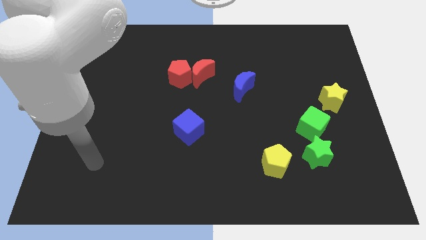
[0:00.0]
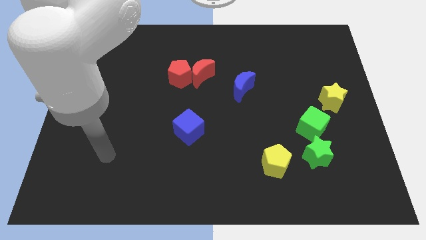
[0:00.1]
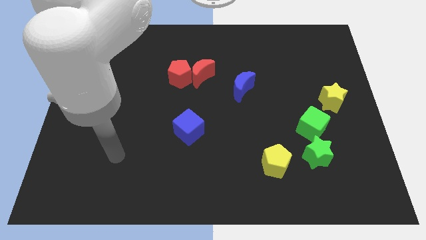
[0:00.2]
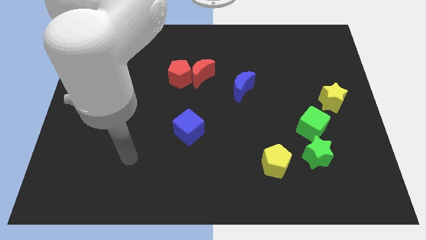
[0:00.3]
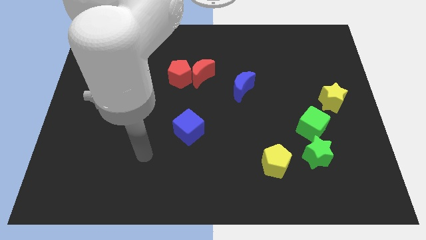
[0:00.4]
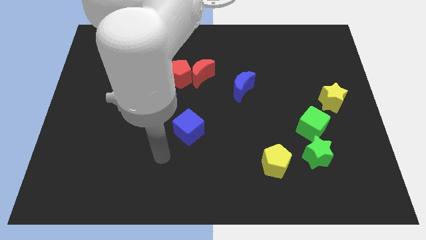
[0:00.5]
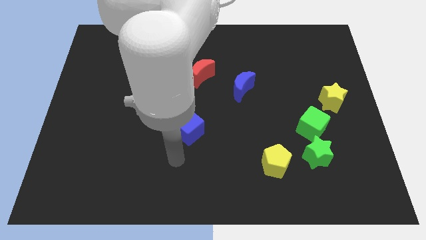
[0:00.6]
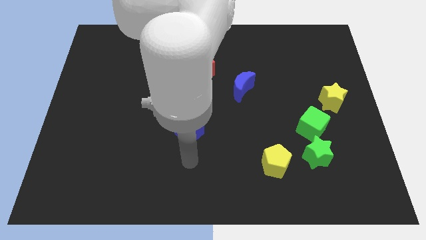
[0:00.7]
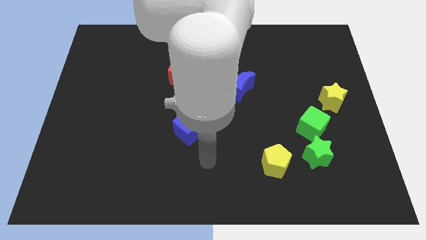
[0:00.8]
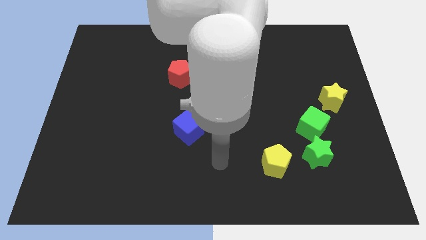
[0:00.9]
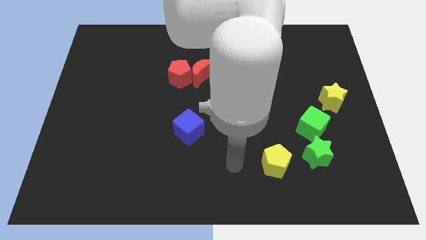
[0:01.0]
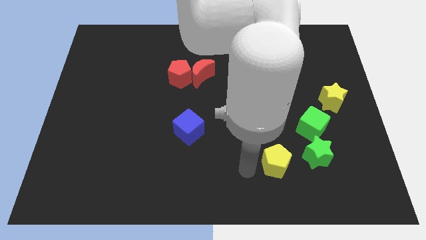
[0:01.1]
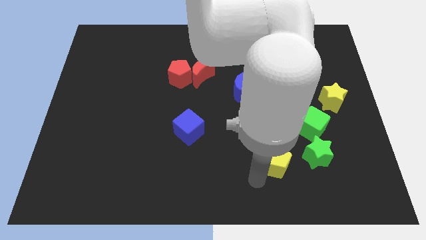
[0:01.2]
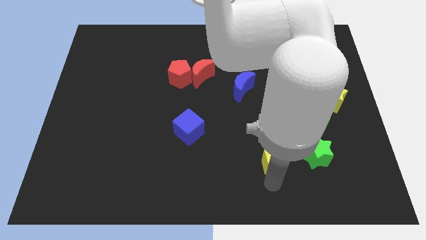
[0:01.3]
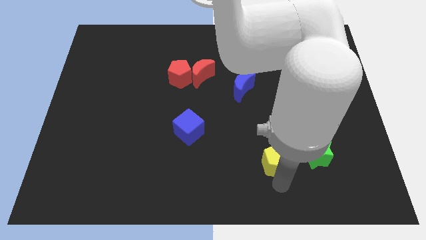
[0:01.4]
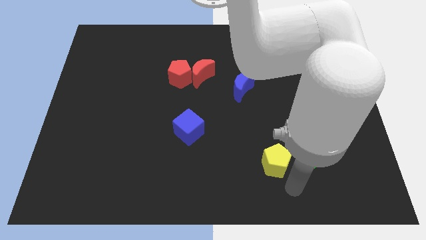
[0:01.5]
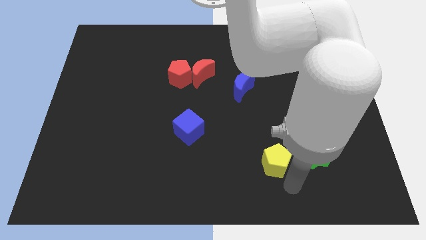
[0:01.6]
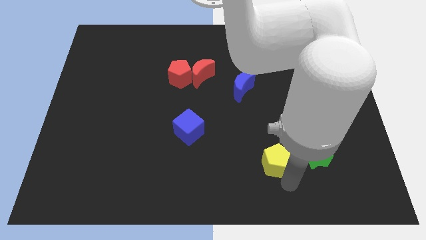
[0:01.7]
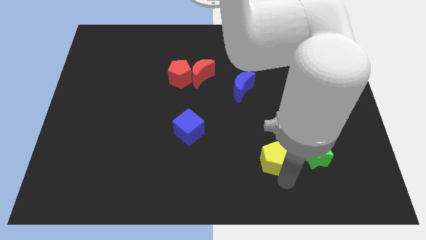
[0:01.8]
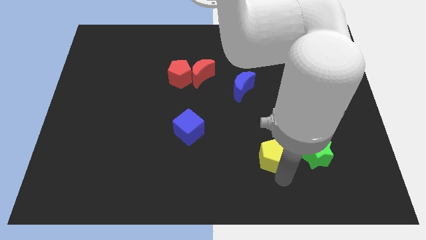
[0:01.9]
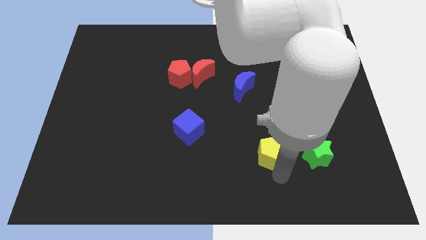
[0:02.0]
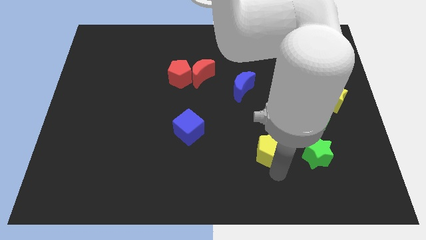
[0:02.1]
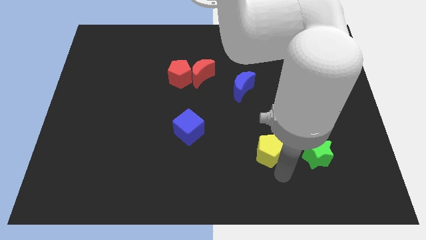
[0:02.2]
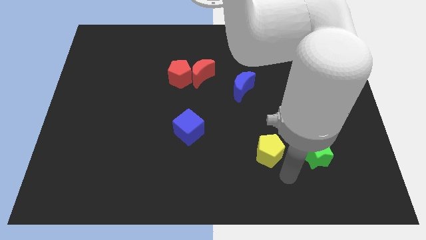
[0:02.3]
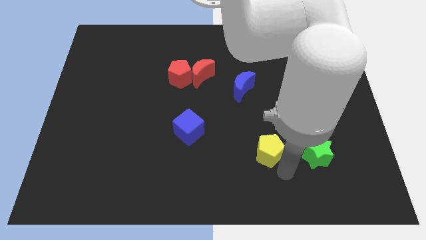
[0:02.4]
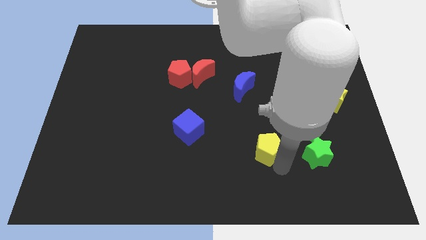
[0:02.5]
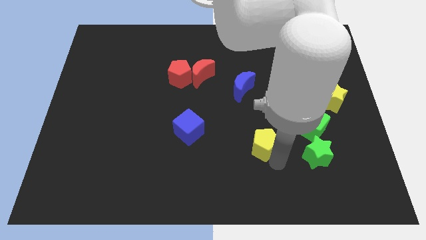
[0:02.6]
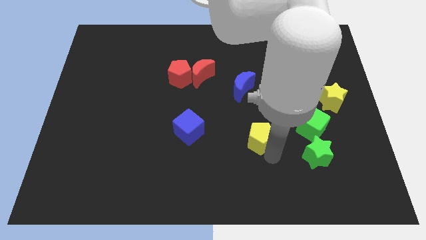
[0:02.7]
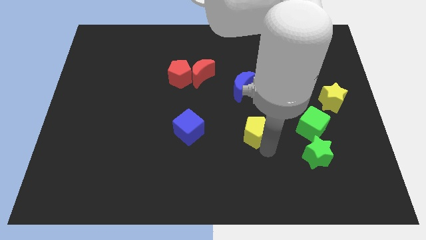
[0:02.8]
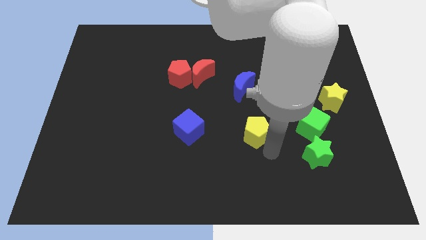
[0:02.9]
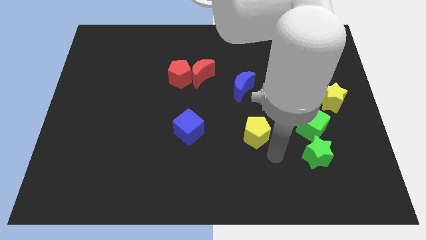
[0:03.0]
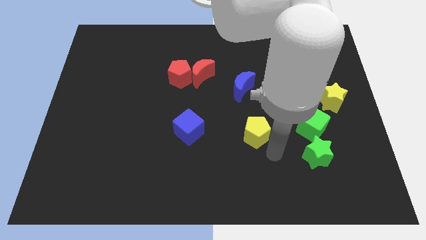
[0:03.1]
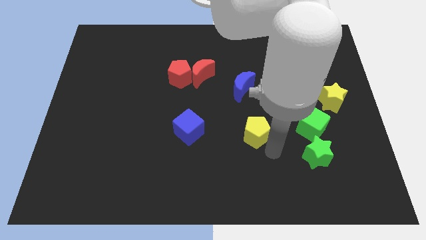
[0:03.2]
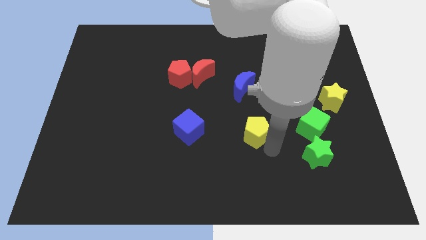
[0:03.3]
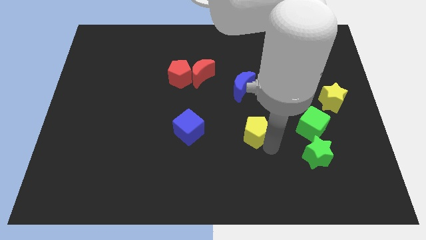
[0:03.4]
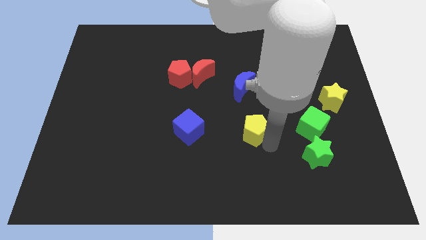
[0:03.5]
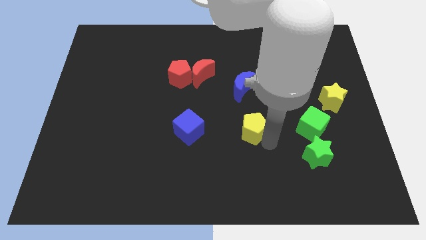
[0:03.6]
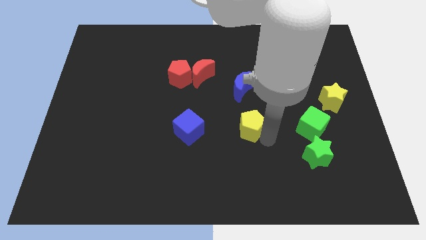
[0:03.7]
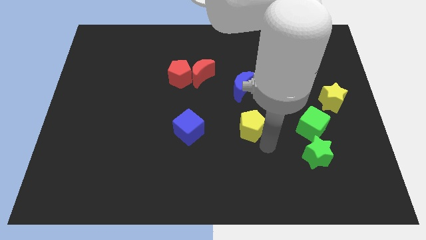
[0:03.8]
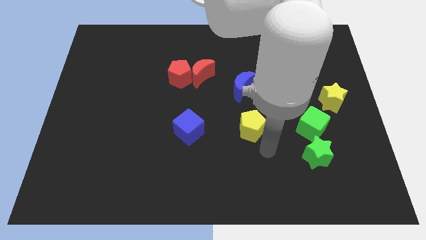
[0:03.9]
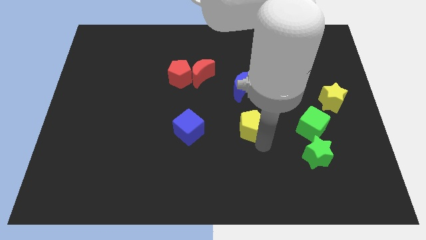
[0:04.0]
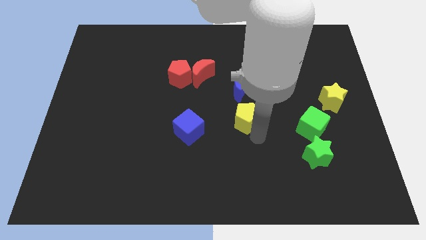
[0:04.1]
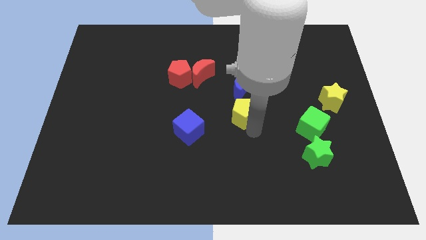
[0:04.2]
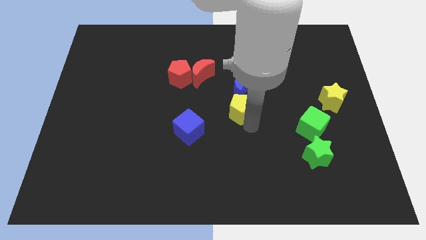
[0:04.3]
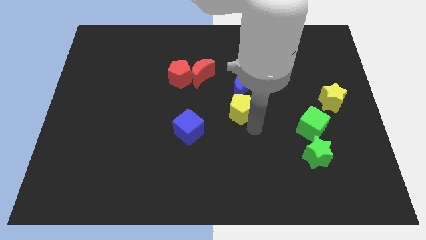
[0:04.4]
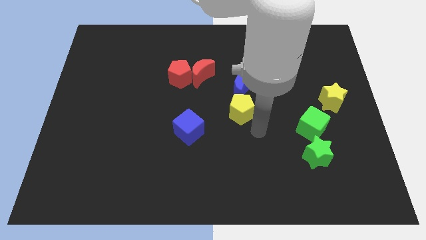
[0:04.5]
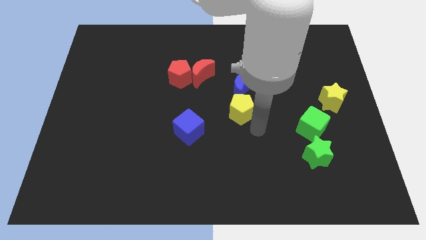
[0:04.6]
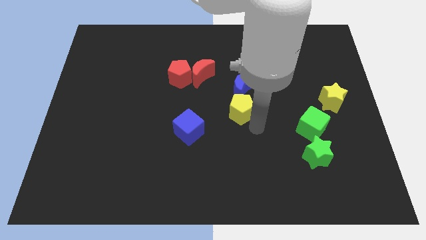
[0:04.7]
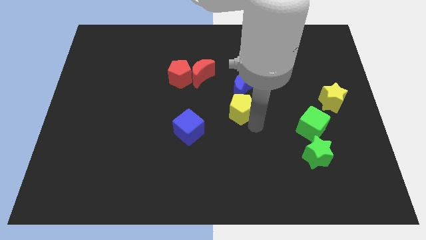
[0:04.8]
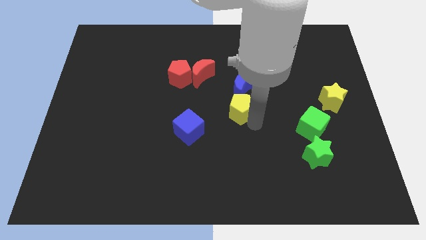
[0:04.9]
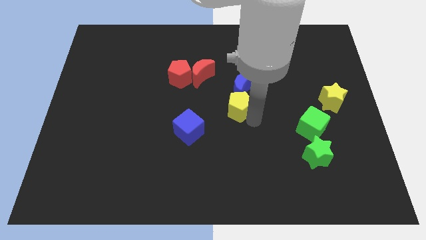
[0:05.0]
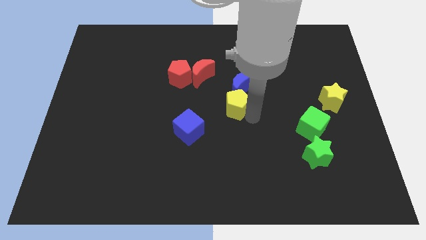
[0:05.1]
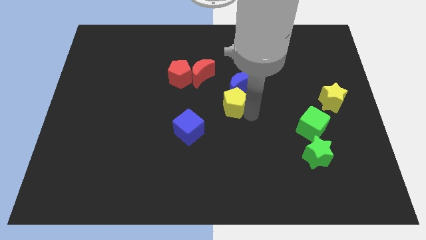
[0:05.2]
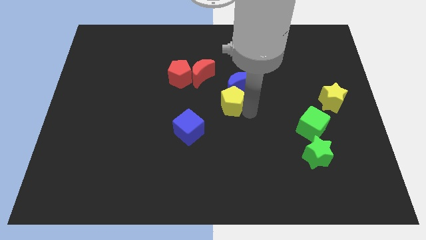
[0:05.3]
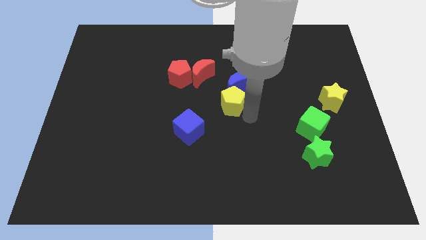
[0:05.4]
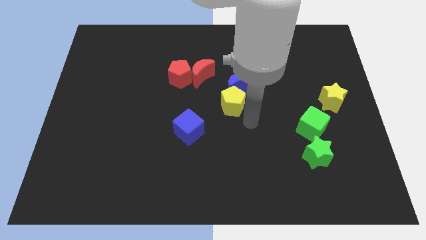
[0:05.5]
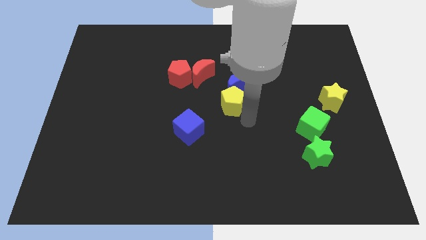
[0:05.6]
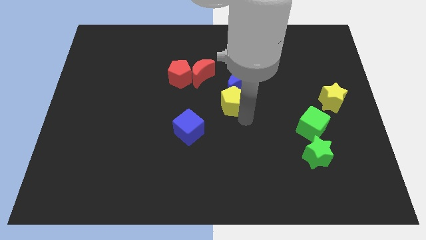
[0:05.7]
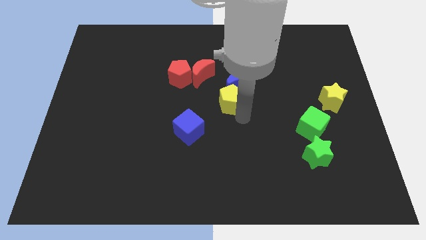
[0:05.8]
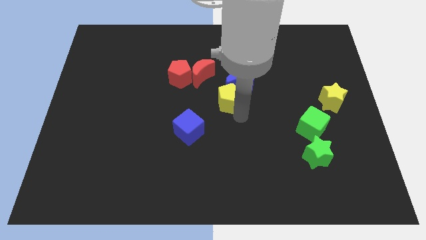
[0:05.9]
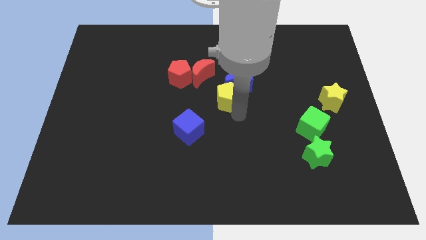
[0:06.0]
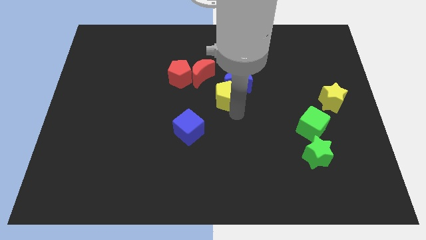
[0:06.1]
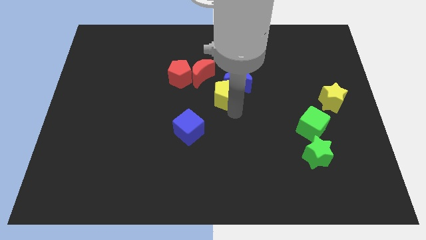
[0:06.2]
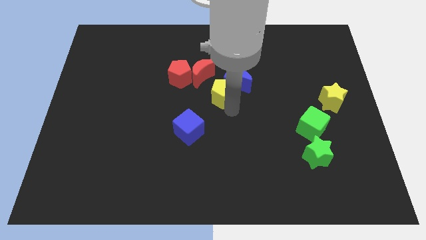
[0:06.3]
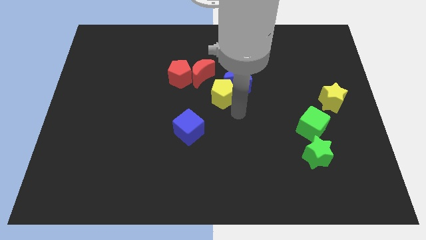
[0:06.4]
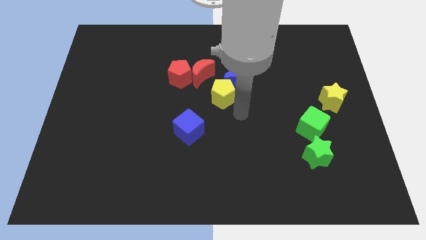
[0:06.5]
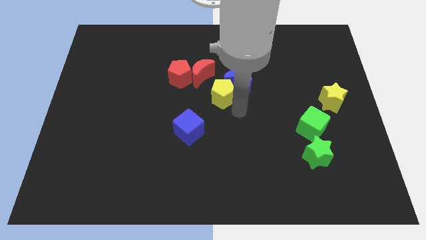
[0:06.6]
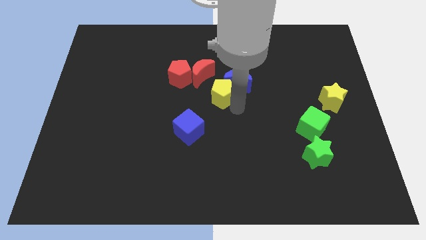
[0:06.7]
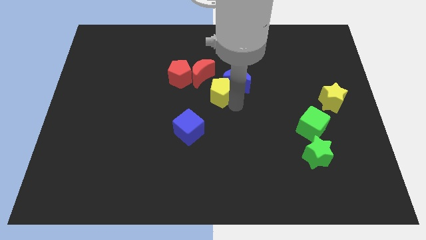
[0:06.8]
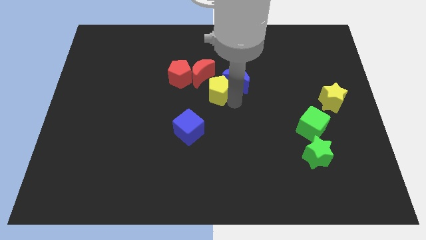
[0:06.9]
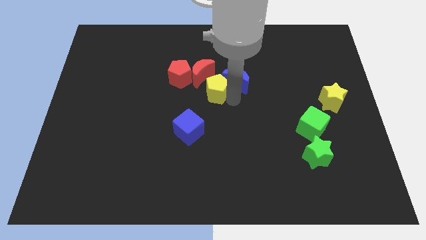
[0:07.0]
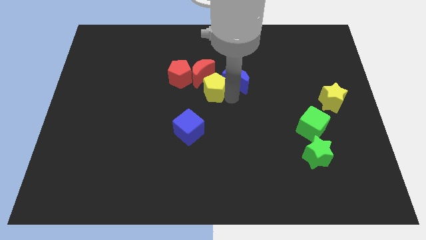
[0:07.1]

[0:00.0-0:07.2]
put the yellow pentagon close to the red moon
